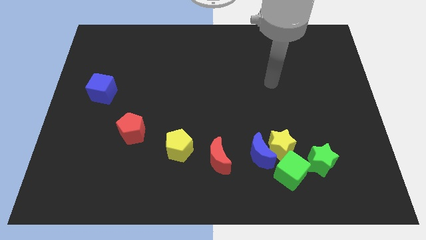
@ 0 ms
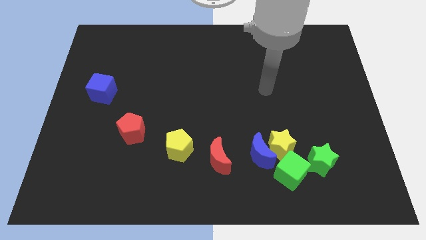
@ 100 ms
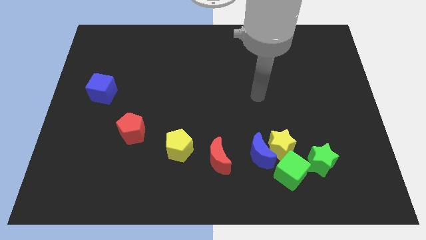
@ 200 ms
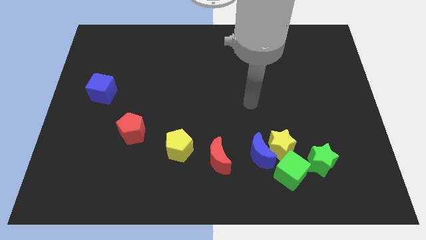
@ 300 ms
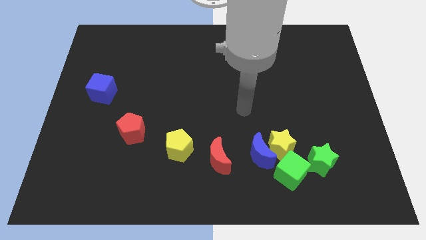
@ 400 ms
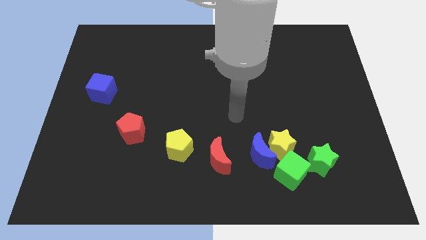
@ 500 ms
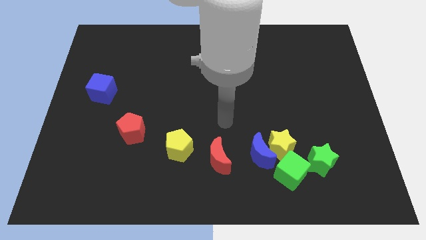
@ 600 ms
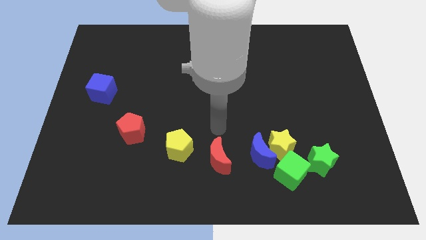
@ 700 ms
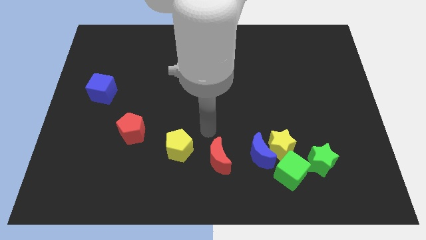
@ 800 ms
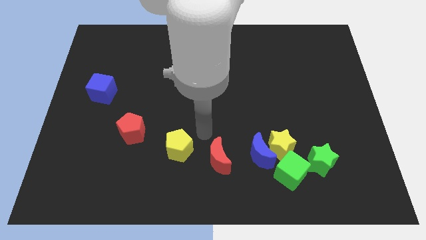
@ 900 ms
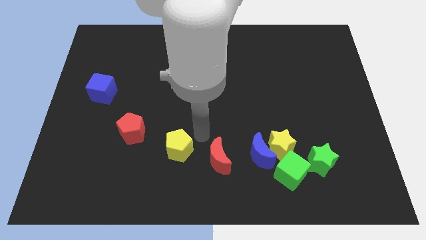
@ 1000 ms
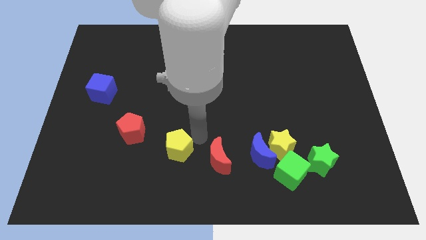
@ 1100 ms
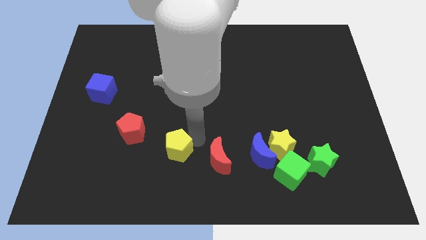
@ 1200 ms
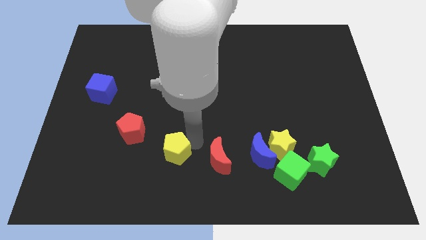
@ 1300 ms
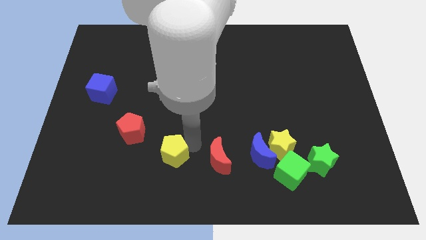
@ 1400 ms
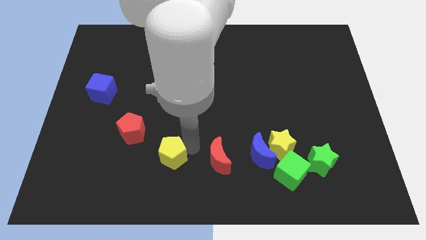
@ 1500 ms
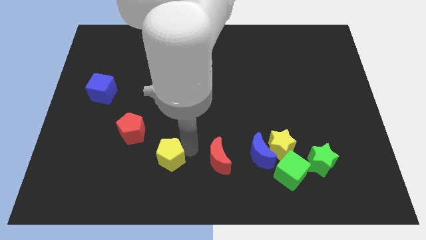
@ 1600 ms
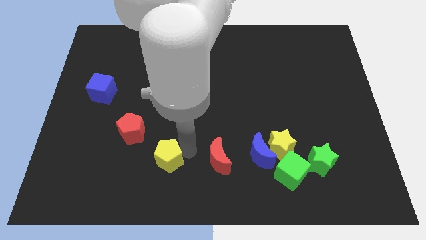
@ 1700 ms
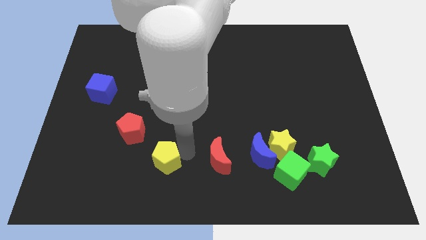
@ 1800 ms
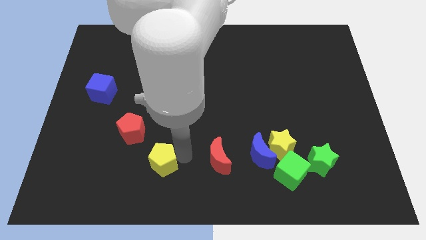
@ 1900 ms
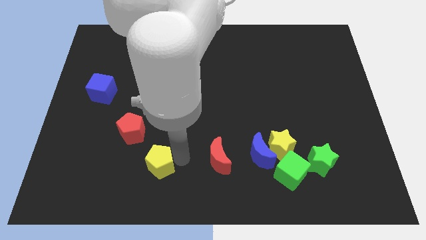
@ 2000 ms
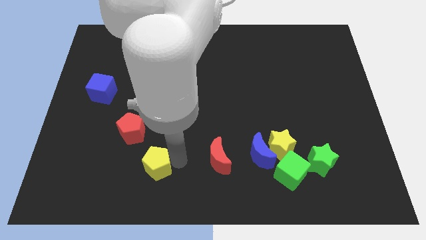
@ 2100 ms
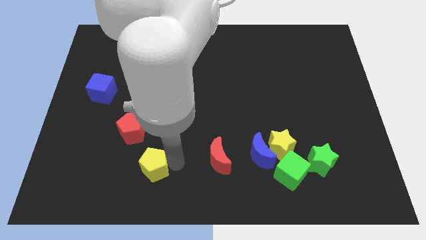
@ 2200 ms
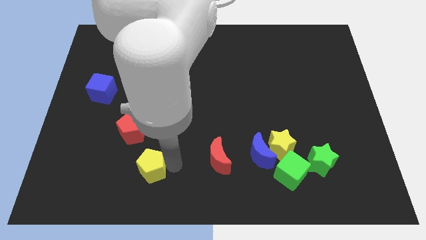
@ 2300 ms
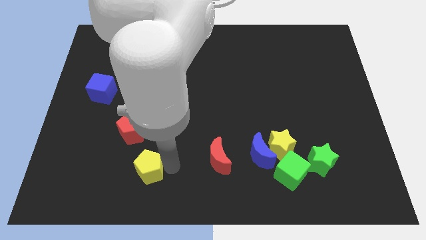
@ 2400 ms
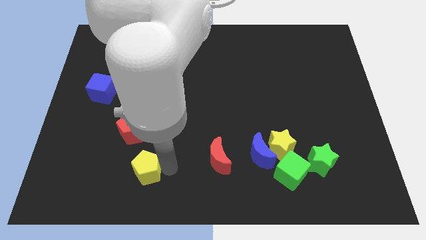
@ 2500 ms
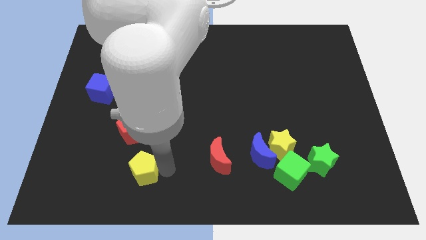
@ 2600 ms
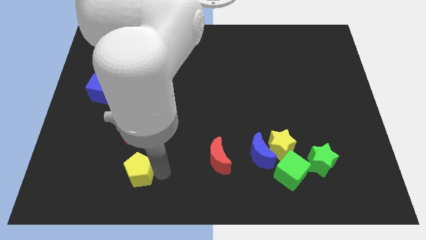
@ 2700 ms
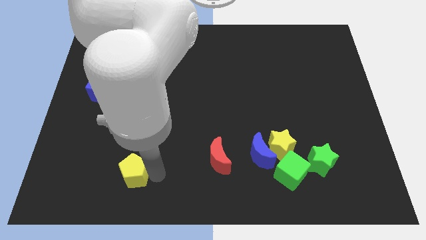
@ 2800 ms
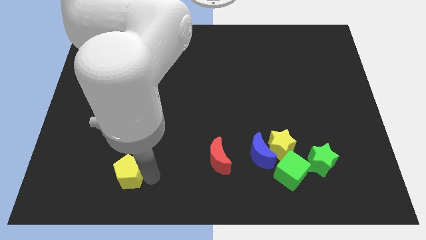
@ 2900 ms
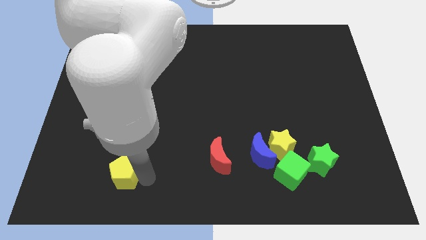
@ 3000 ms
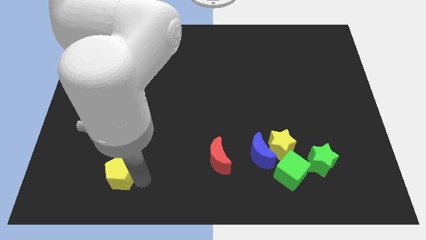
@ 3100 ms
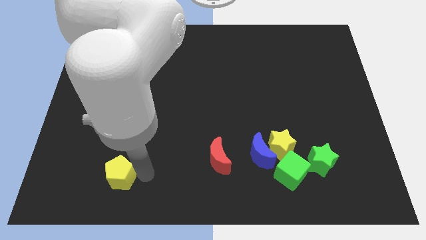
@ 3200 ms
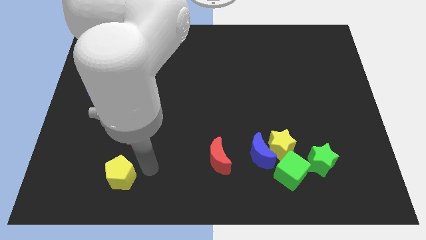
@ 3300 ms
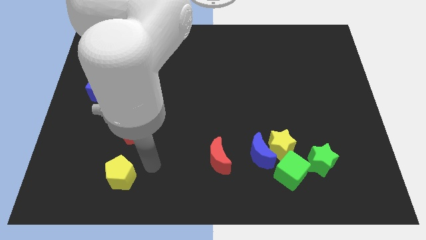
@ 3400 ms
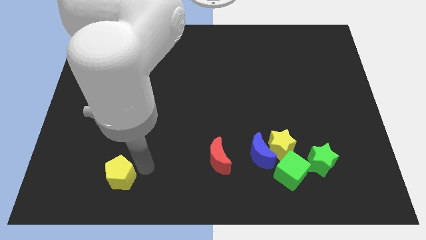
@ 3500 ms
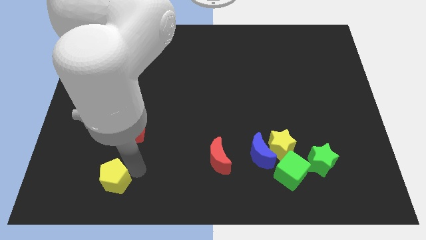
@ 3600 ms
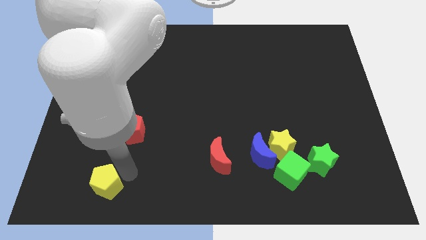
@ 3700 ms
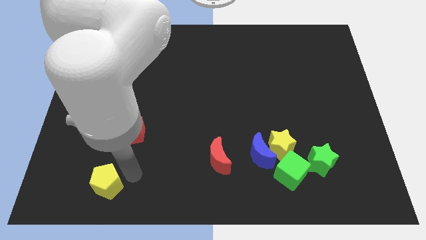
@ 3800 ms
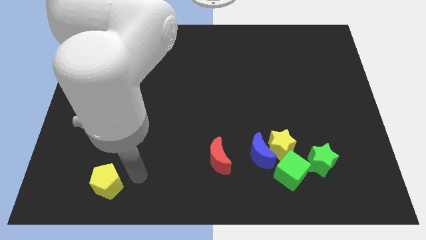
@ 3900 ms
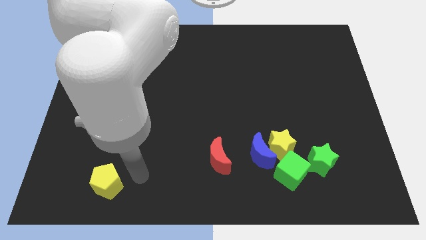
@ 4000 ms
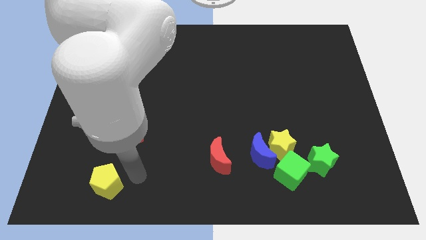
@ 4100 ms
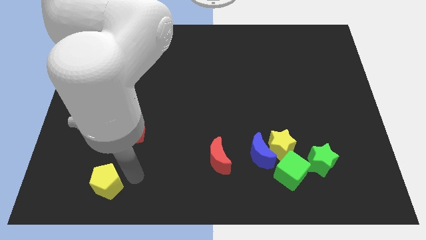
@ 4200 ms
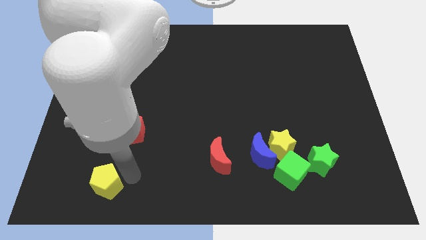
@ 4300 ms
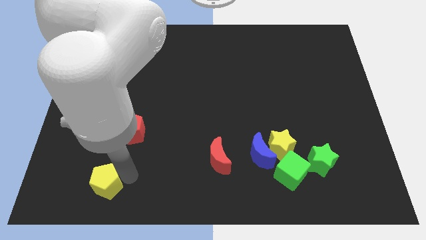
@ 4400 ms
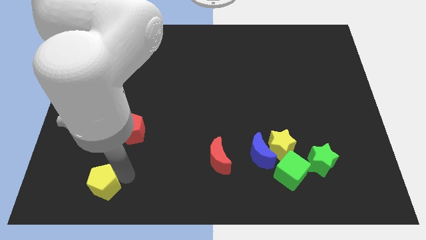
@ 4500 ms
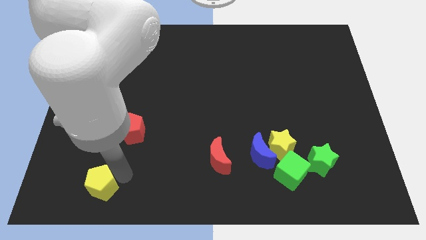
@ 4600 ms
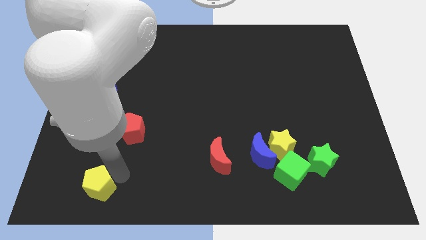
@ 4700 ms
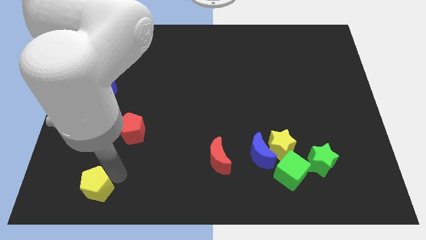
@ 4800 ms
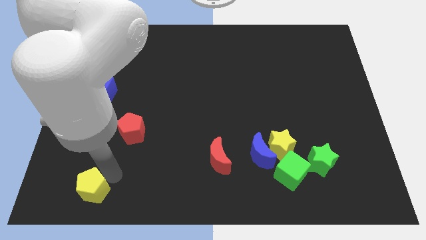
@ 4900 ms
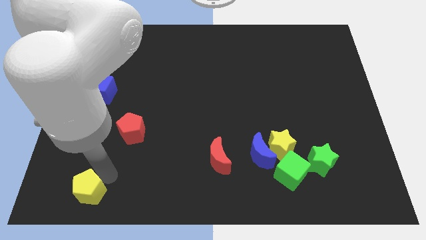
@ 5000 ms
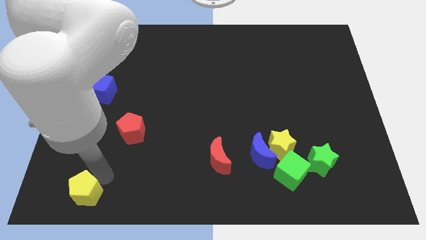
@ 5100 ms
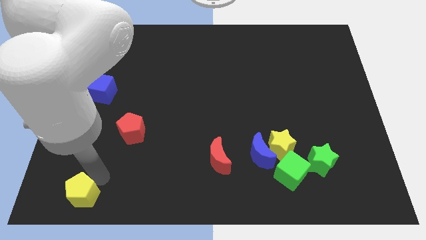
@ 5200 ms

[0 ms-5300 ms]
move the yellow pentagon to the lower left corner

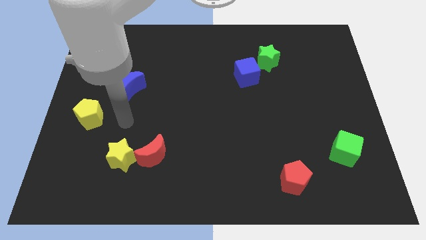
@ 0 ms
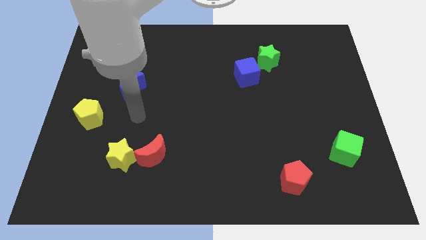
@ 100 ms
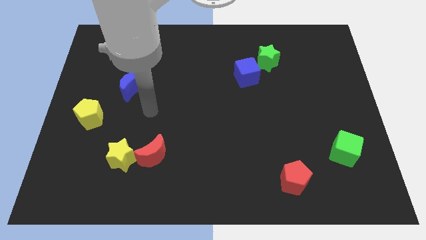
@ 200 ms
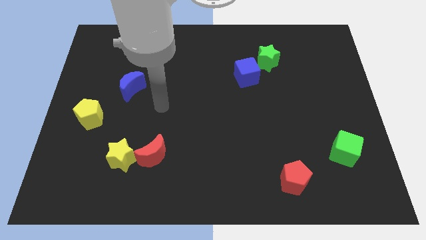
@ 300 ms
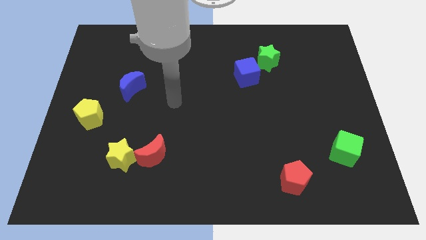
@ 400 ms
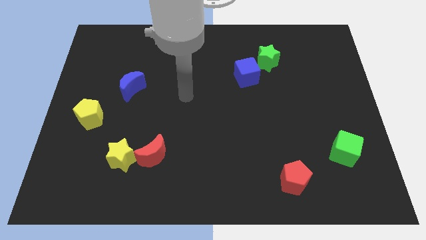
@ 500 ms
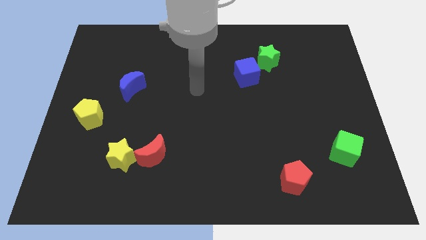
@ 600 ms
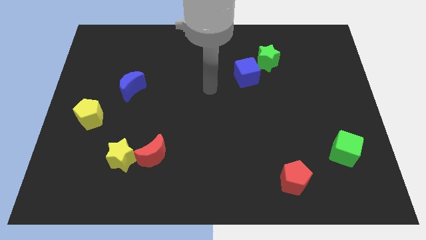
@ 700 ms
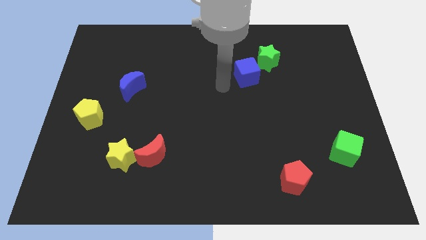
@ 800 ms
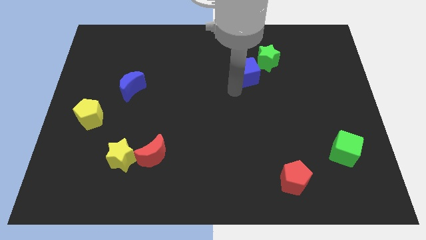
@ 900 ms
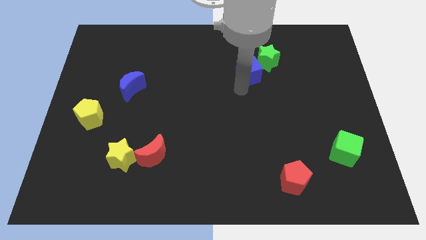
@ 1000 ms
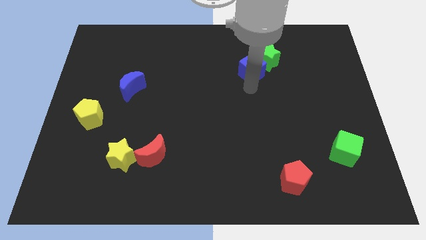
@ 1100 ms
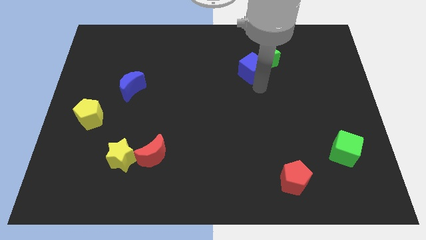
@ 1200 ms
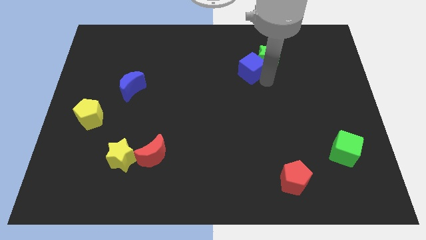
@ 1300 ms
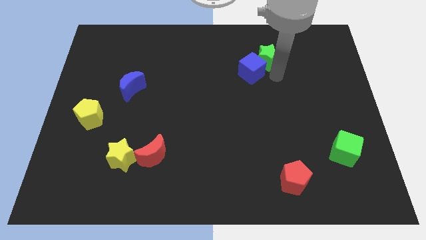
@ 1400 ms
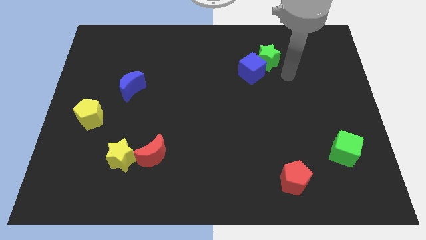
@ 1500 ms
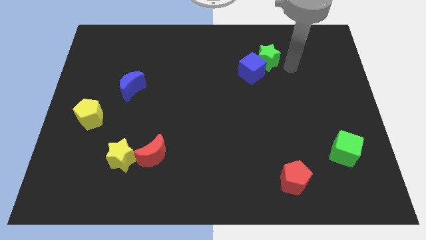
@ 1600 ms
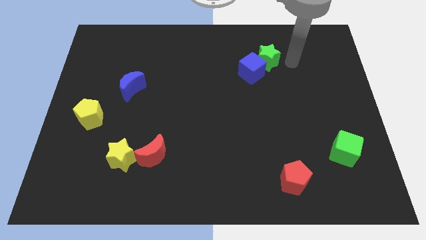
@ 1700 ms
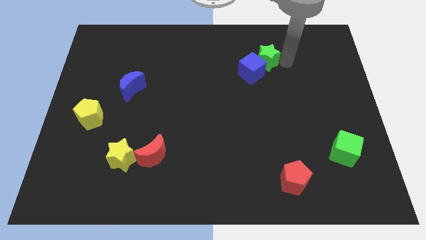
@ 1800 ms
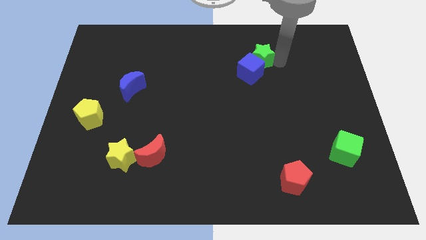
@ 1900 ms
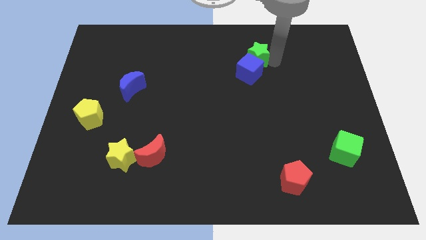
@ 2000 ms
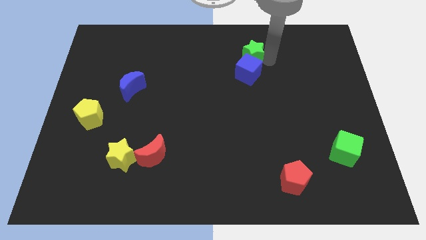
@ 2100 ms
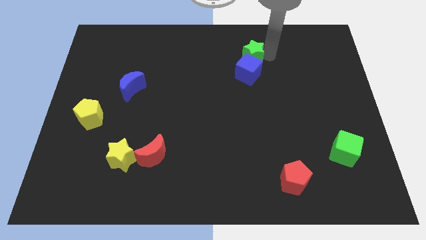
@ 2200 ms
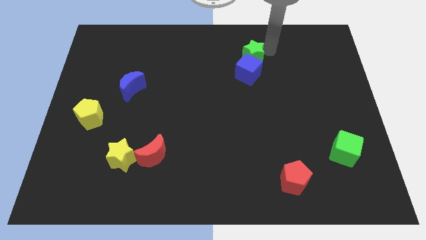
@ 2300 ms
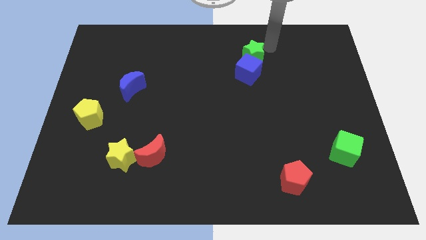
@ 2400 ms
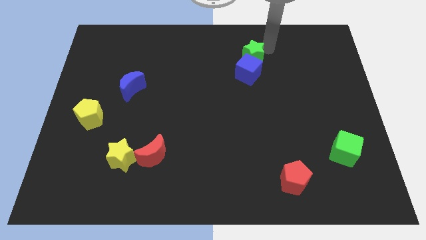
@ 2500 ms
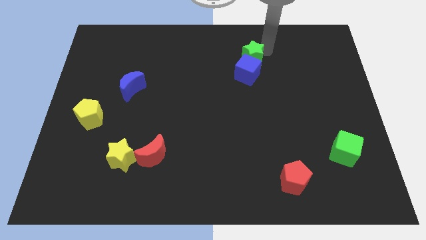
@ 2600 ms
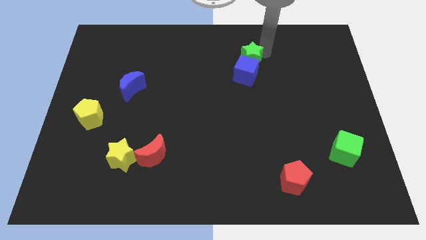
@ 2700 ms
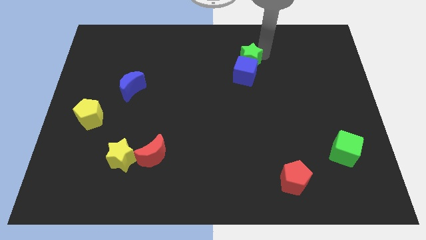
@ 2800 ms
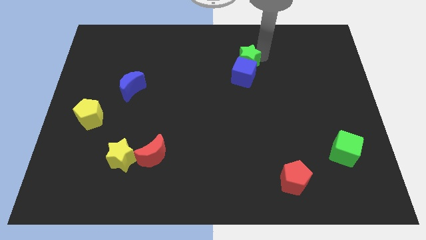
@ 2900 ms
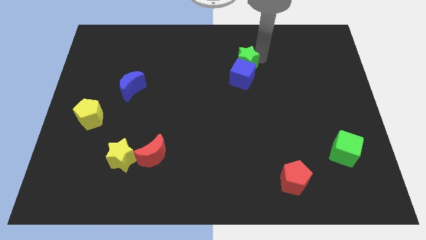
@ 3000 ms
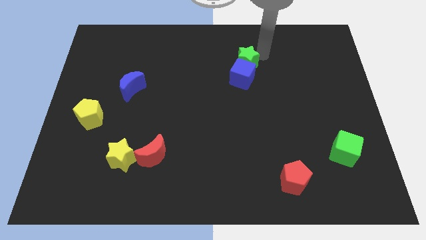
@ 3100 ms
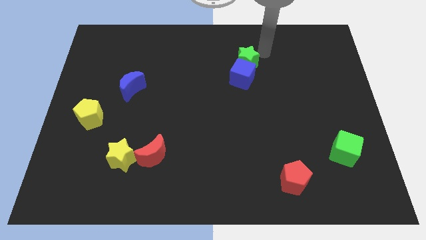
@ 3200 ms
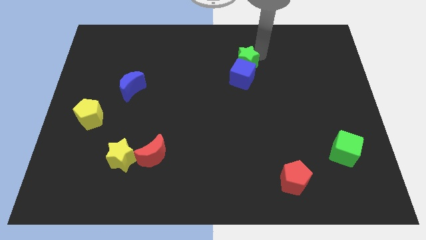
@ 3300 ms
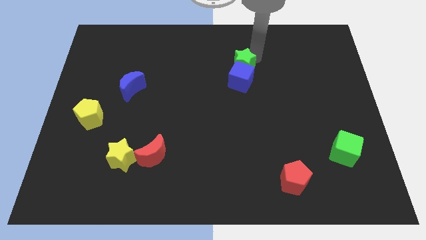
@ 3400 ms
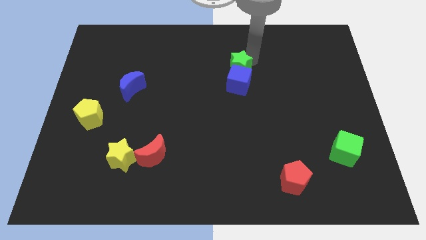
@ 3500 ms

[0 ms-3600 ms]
put the green star to the middle
